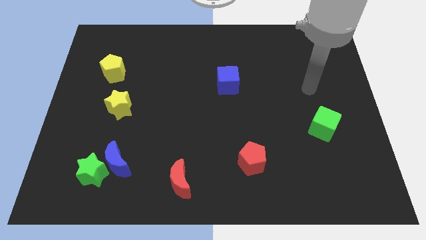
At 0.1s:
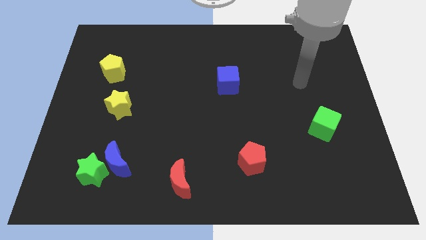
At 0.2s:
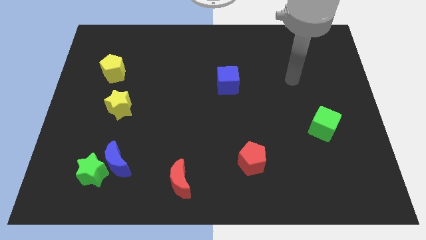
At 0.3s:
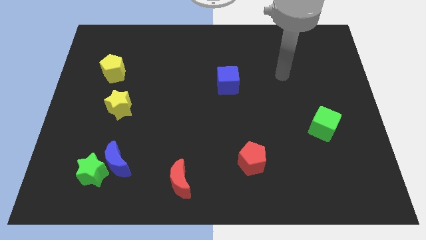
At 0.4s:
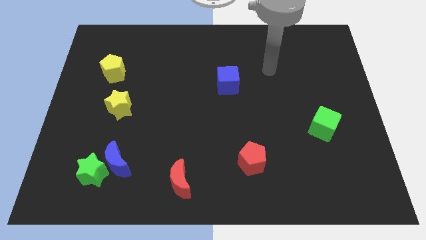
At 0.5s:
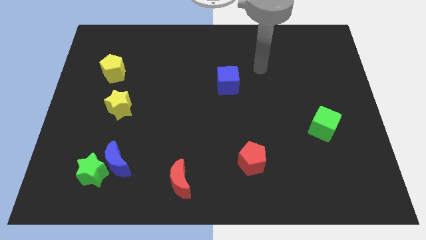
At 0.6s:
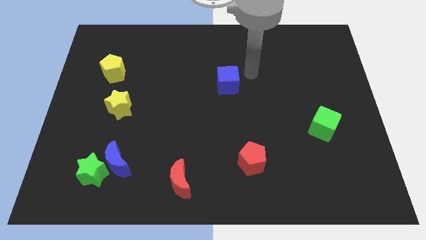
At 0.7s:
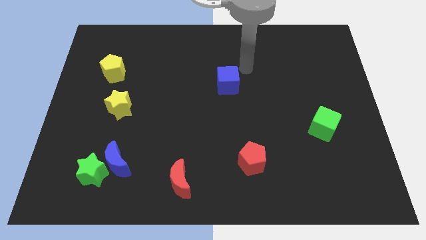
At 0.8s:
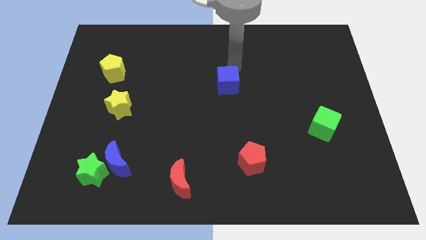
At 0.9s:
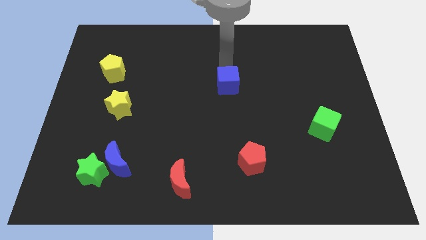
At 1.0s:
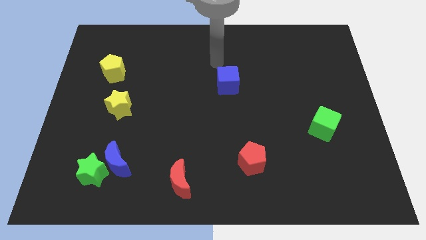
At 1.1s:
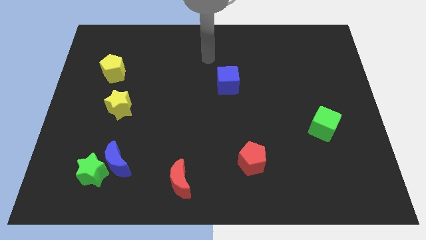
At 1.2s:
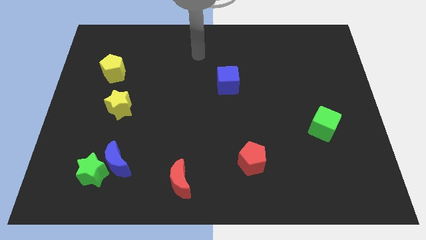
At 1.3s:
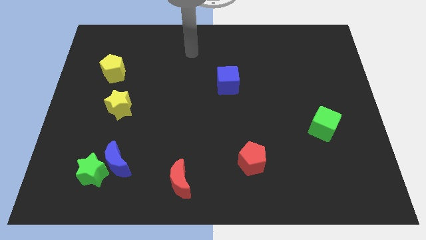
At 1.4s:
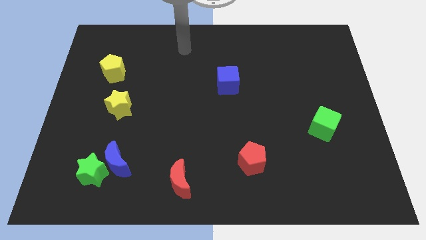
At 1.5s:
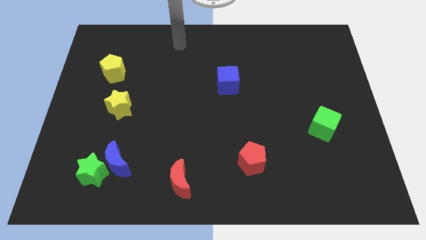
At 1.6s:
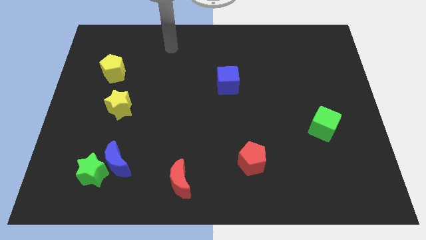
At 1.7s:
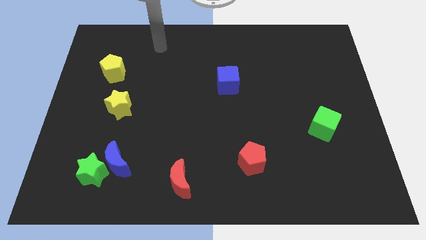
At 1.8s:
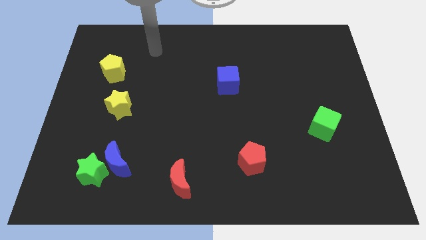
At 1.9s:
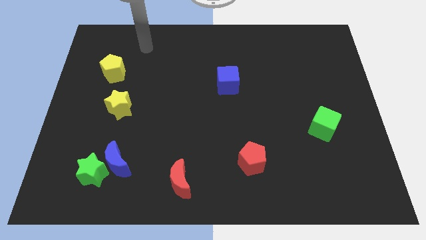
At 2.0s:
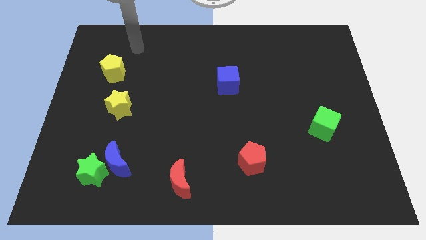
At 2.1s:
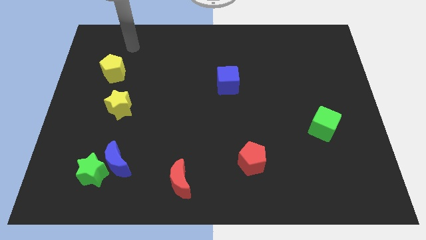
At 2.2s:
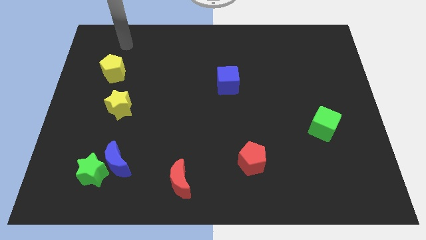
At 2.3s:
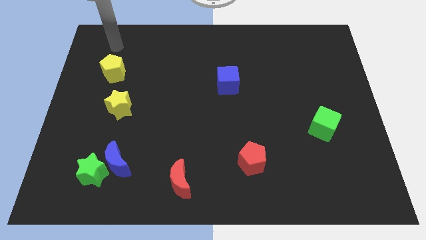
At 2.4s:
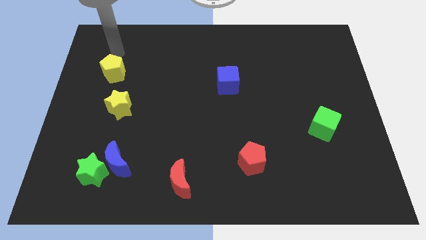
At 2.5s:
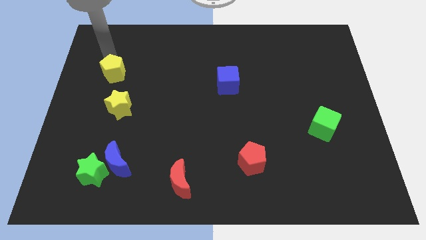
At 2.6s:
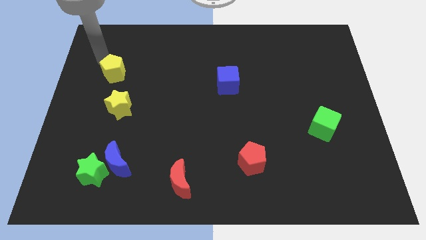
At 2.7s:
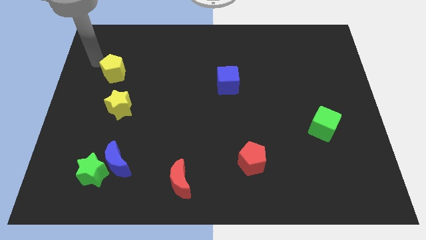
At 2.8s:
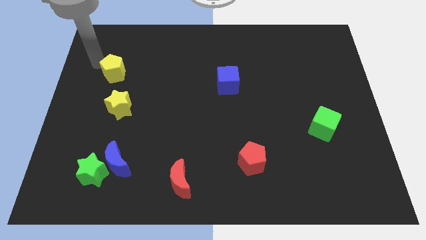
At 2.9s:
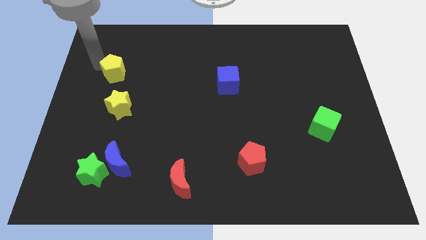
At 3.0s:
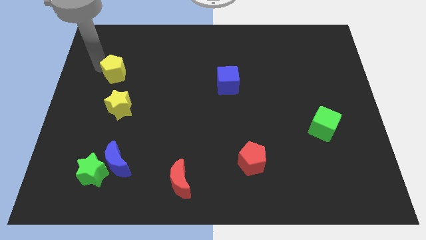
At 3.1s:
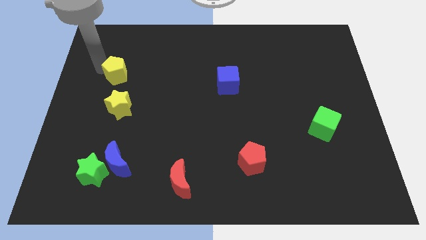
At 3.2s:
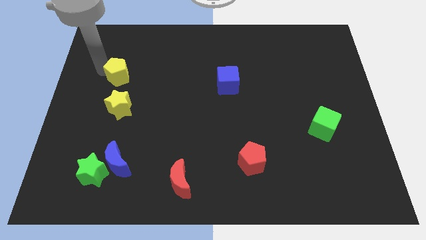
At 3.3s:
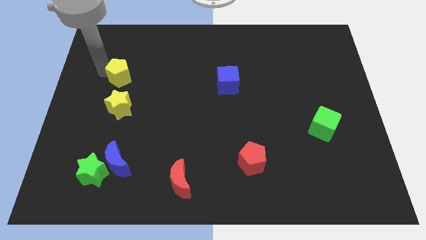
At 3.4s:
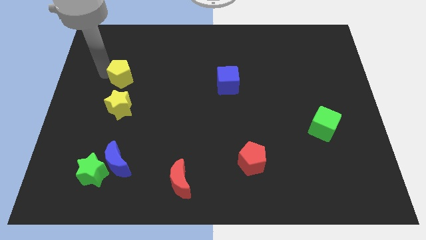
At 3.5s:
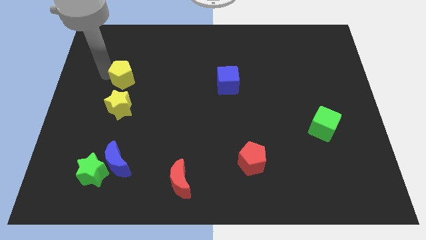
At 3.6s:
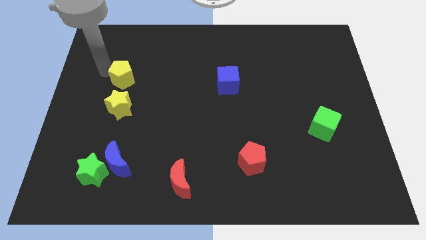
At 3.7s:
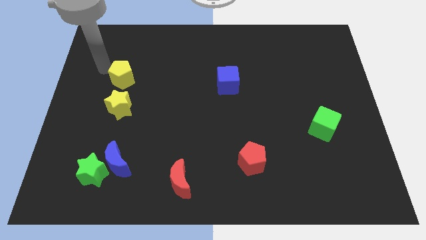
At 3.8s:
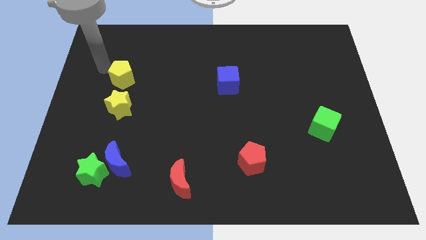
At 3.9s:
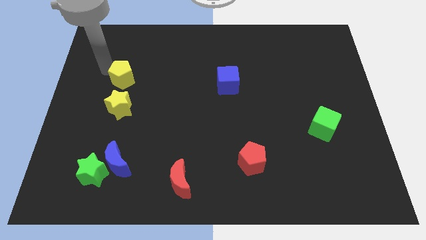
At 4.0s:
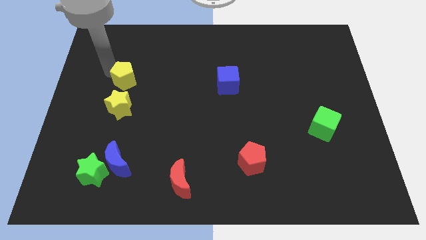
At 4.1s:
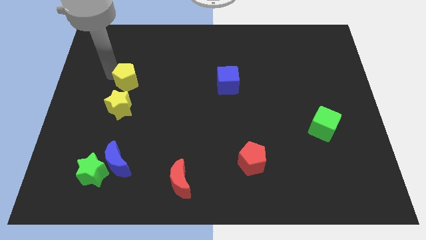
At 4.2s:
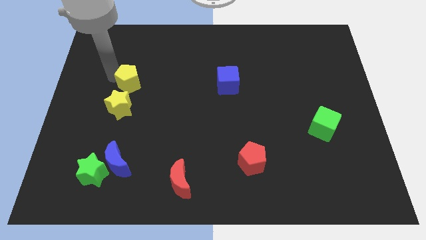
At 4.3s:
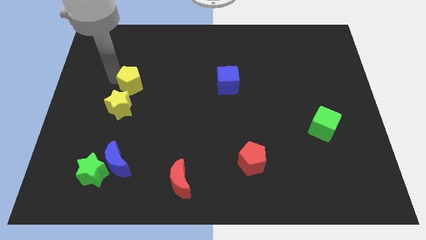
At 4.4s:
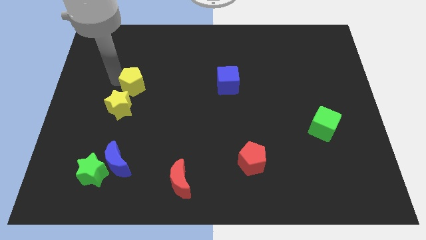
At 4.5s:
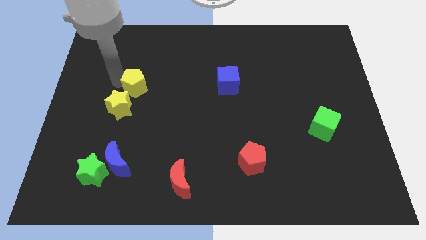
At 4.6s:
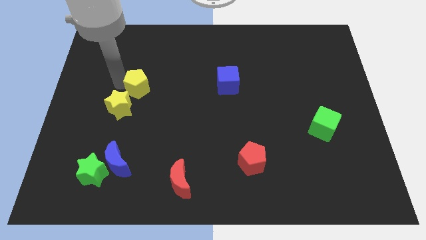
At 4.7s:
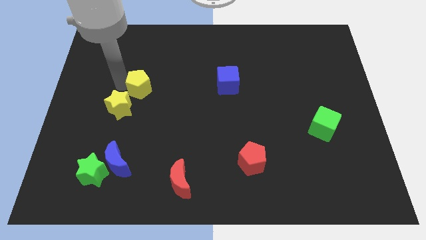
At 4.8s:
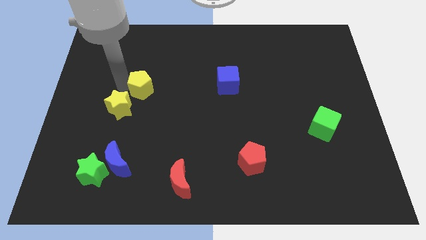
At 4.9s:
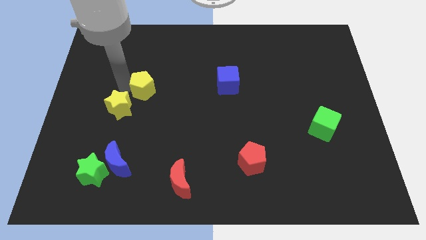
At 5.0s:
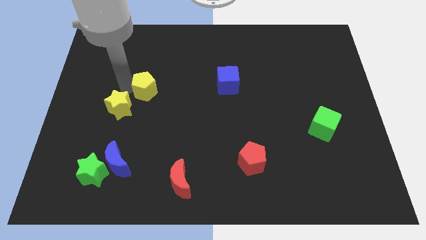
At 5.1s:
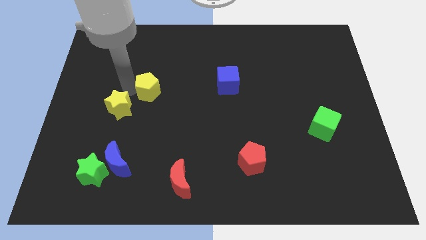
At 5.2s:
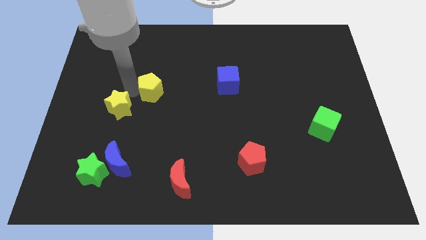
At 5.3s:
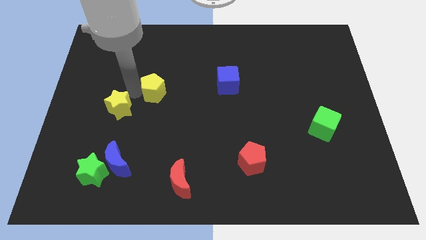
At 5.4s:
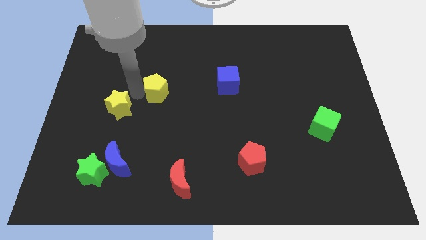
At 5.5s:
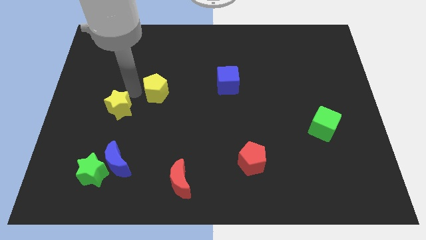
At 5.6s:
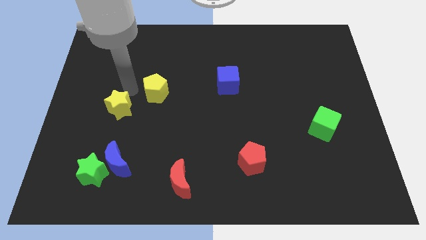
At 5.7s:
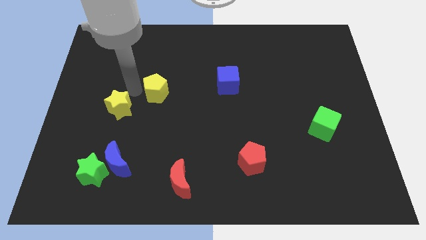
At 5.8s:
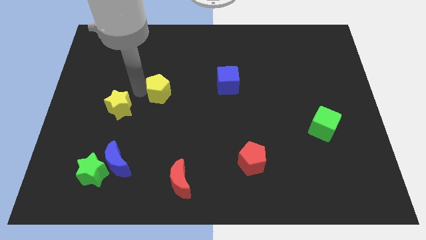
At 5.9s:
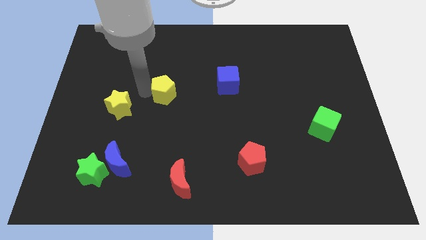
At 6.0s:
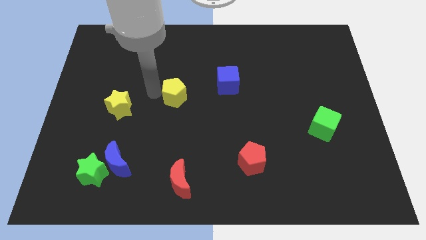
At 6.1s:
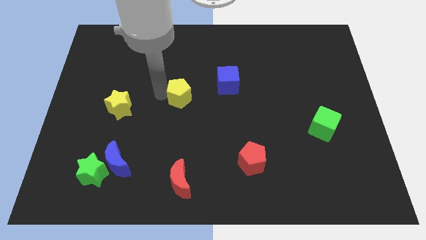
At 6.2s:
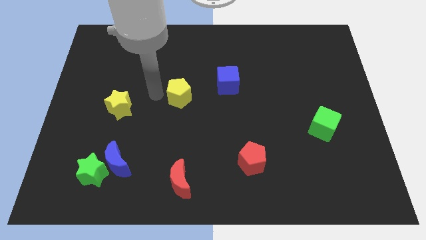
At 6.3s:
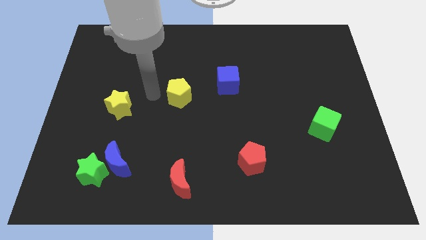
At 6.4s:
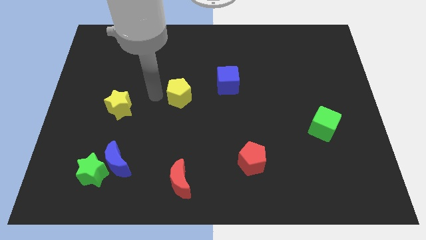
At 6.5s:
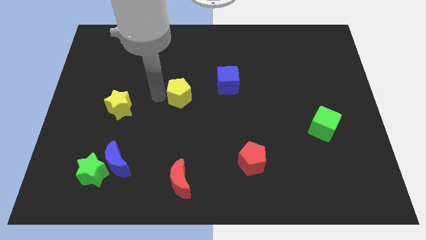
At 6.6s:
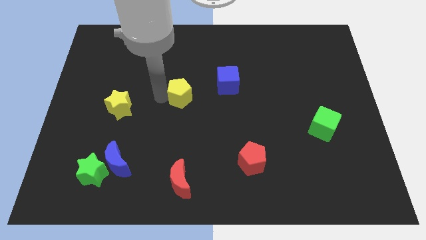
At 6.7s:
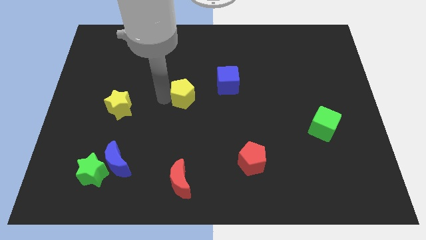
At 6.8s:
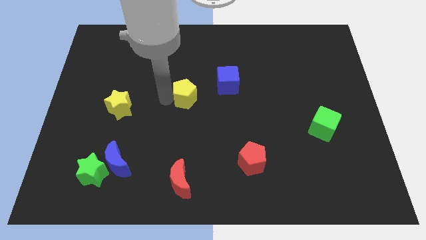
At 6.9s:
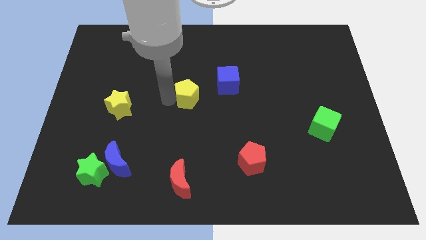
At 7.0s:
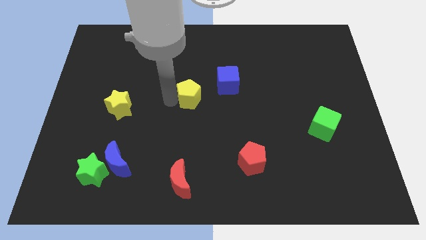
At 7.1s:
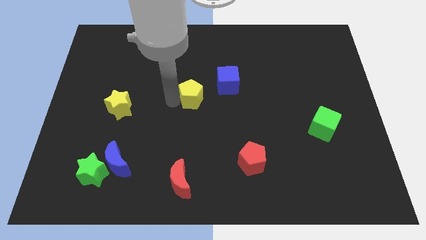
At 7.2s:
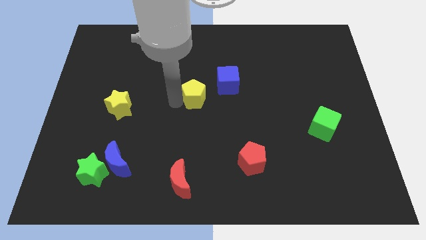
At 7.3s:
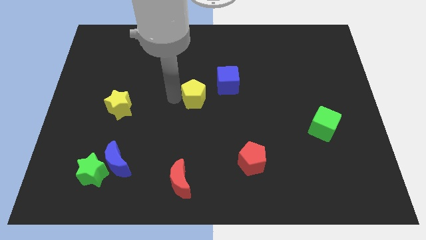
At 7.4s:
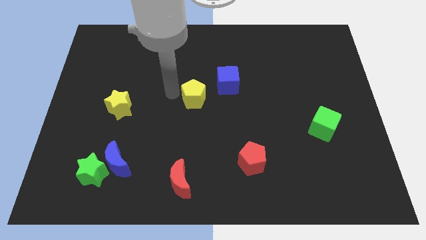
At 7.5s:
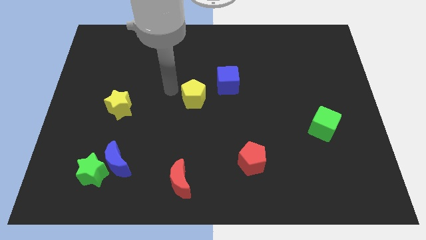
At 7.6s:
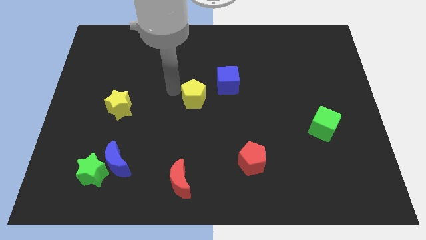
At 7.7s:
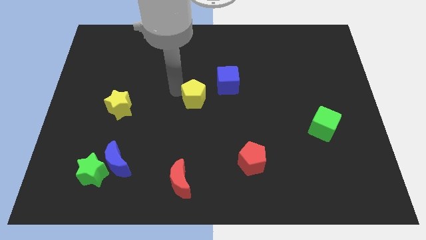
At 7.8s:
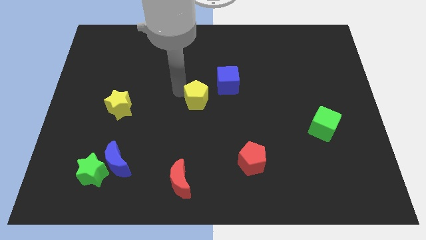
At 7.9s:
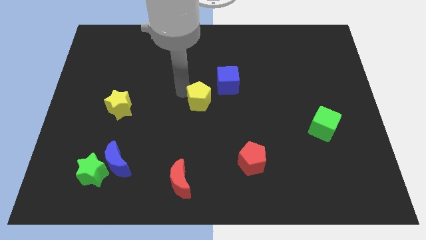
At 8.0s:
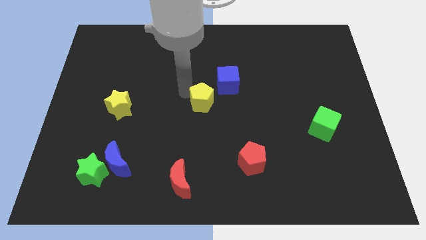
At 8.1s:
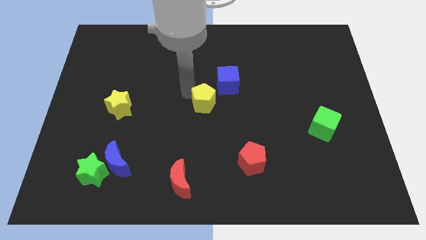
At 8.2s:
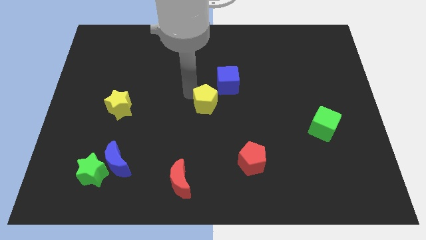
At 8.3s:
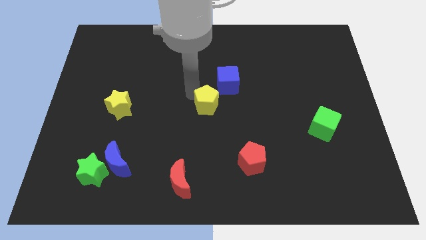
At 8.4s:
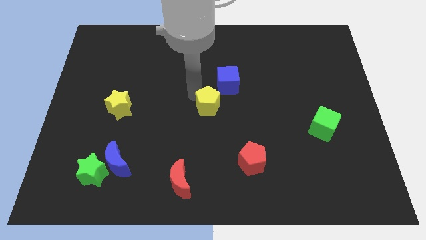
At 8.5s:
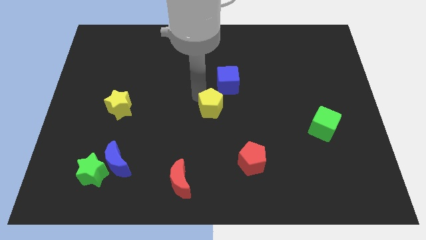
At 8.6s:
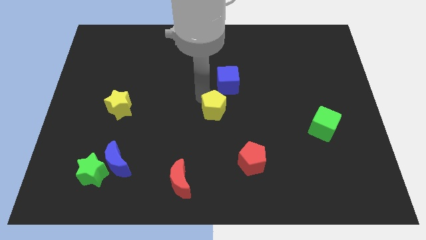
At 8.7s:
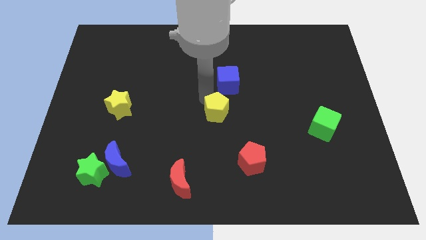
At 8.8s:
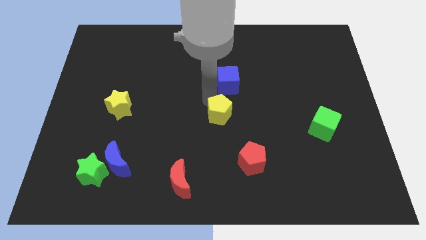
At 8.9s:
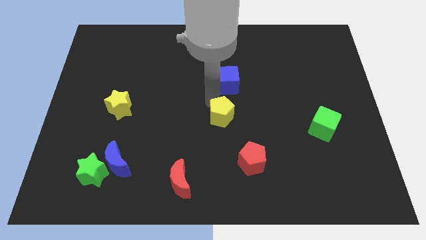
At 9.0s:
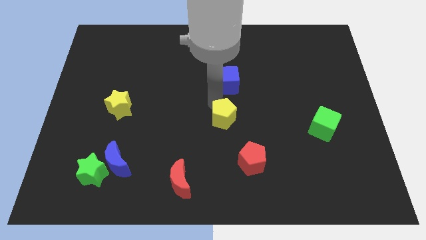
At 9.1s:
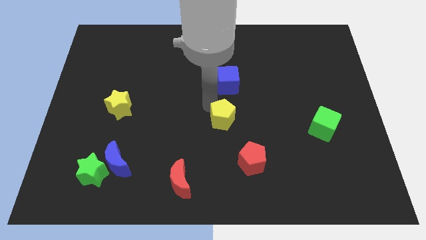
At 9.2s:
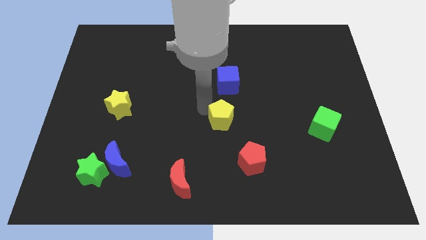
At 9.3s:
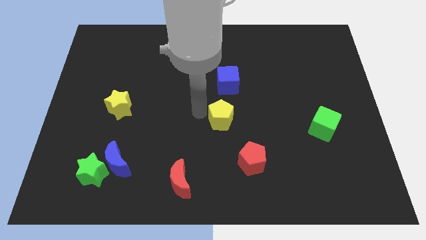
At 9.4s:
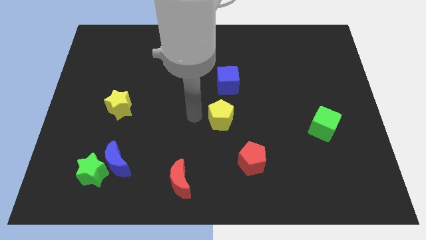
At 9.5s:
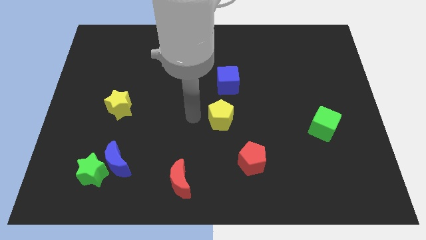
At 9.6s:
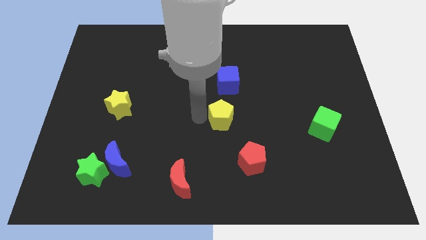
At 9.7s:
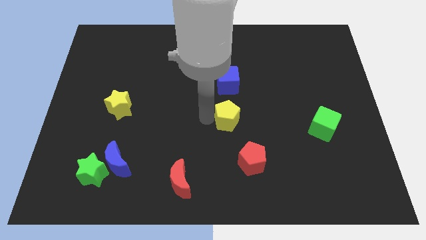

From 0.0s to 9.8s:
slide the yellow pentagon to the top side of the red pentagon
